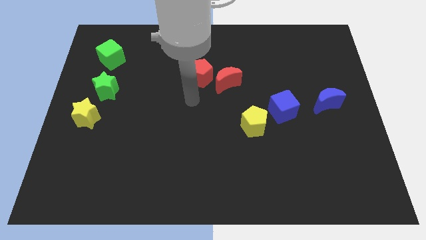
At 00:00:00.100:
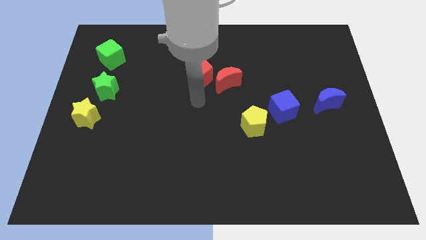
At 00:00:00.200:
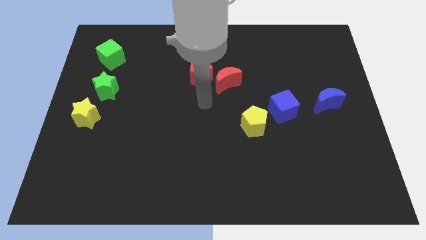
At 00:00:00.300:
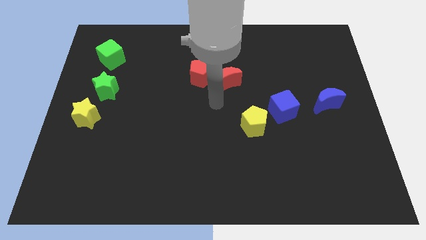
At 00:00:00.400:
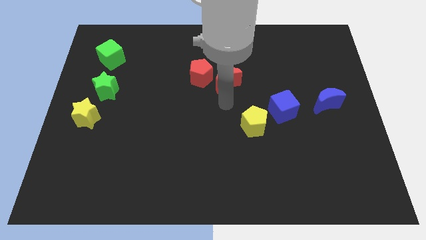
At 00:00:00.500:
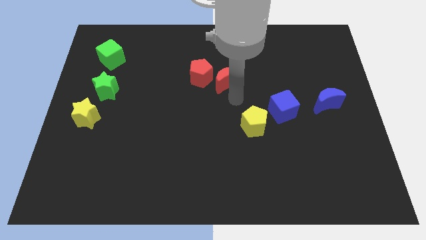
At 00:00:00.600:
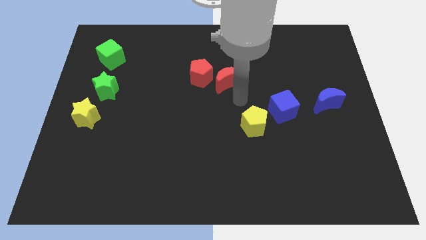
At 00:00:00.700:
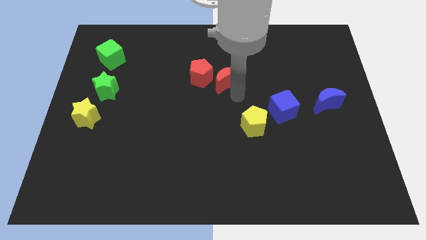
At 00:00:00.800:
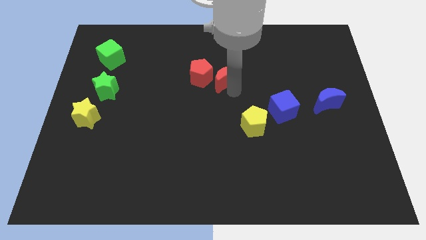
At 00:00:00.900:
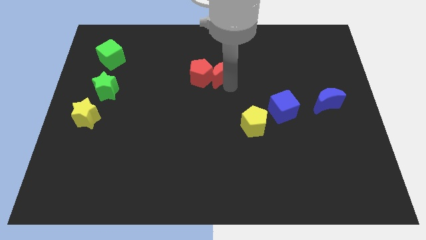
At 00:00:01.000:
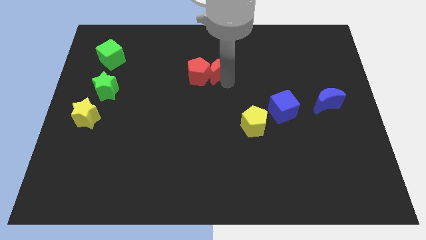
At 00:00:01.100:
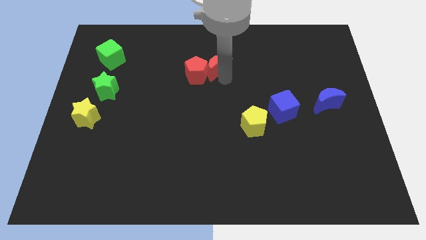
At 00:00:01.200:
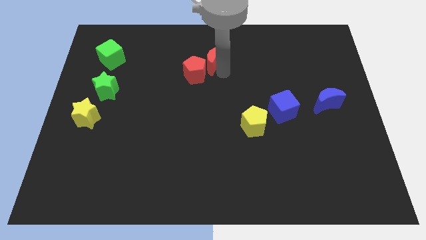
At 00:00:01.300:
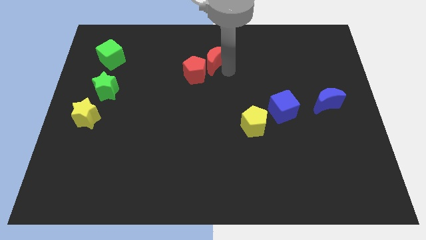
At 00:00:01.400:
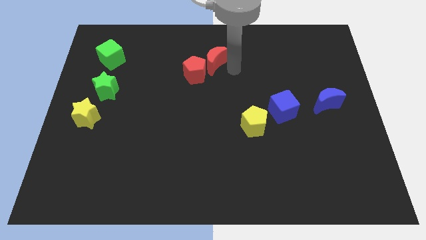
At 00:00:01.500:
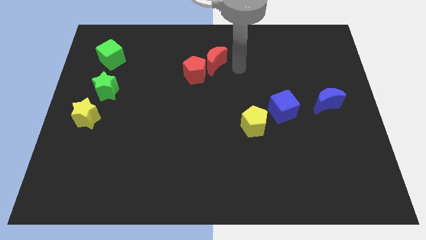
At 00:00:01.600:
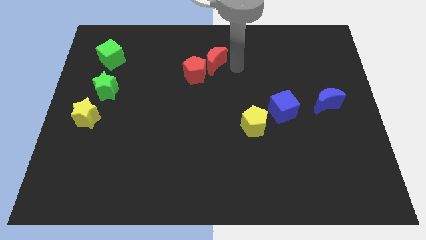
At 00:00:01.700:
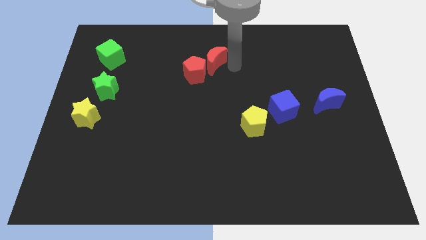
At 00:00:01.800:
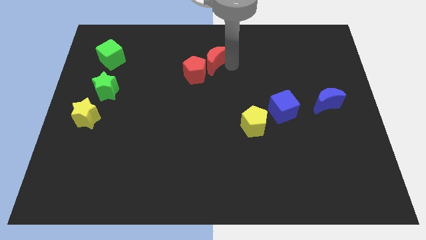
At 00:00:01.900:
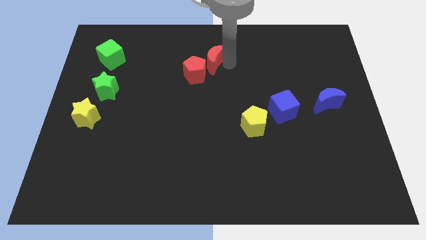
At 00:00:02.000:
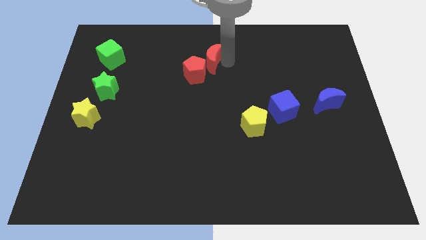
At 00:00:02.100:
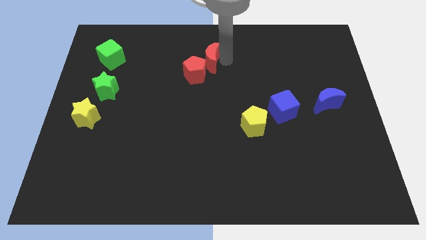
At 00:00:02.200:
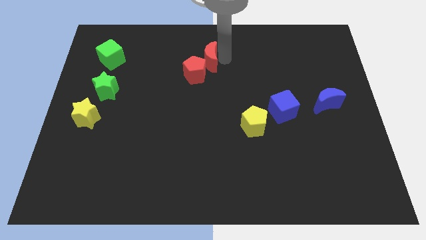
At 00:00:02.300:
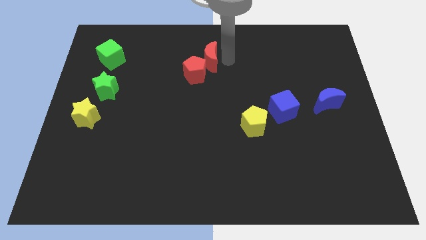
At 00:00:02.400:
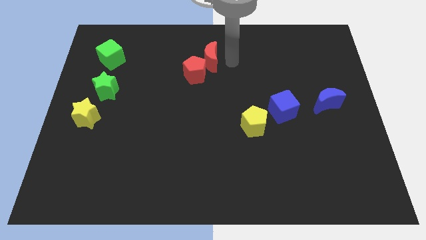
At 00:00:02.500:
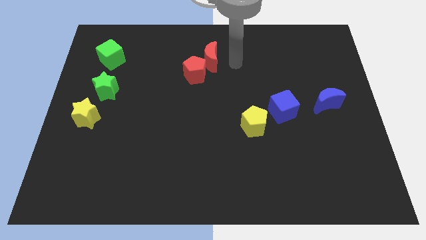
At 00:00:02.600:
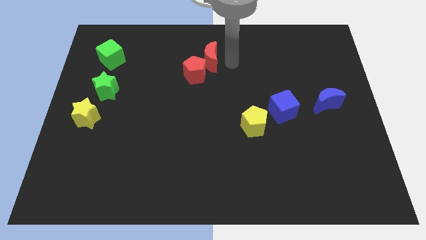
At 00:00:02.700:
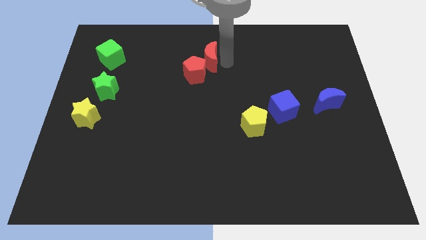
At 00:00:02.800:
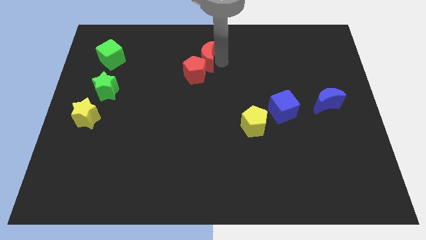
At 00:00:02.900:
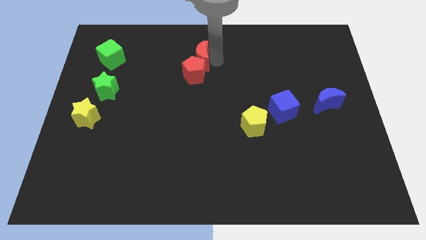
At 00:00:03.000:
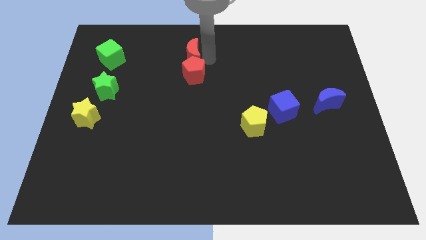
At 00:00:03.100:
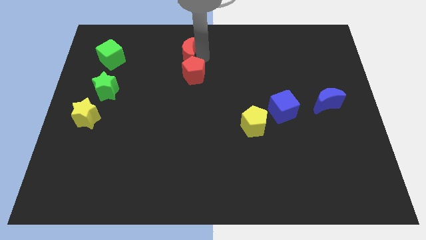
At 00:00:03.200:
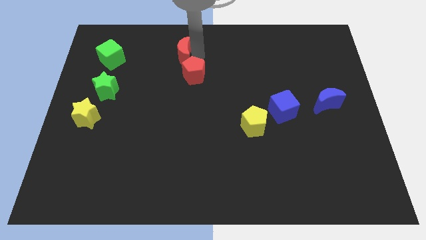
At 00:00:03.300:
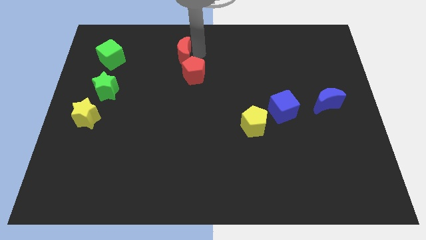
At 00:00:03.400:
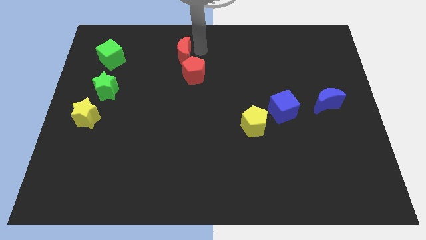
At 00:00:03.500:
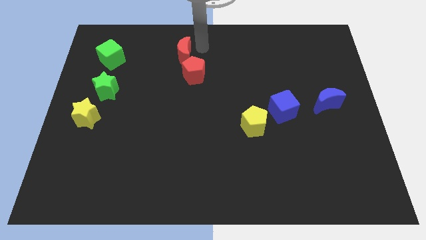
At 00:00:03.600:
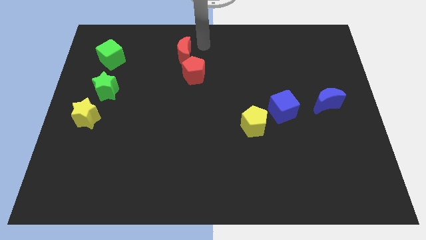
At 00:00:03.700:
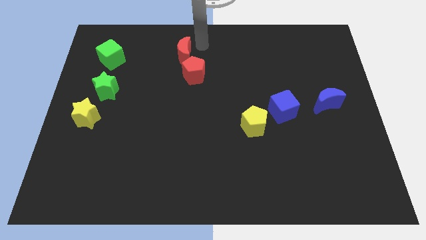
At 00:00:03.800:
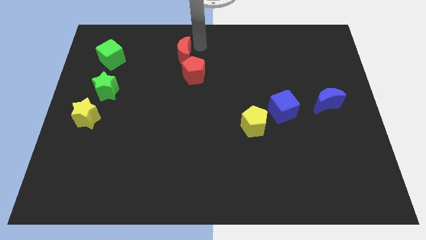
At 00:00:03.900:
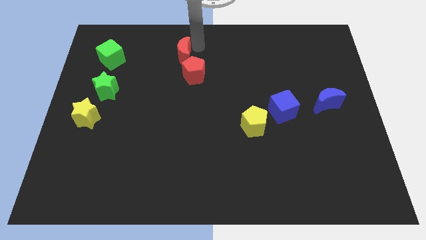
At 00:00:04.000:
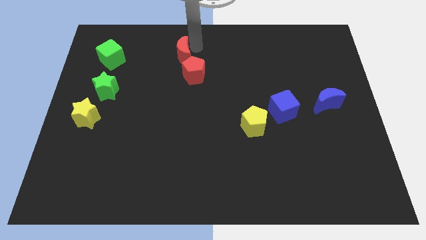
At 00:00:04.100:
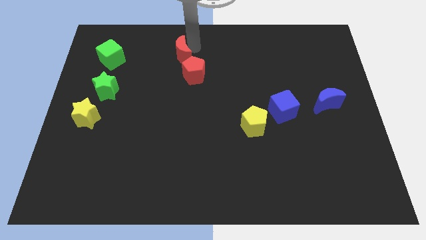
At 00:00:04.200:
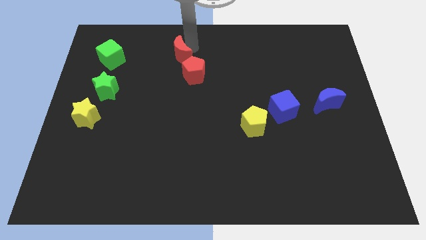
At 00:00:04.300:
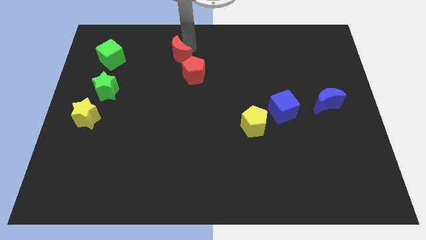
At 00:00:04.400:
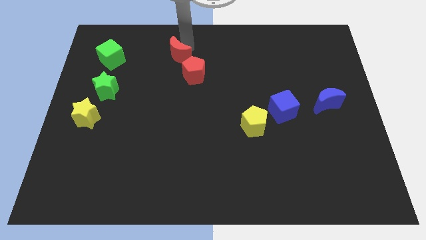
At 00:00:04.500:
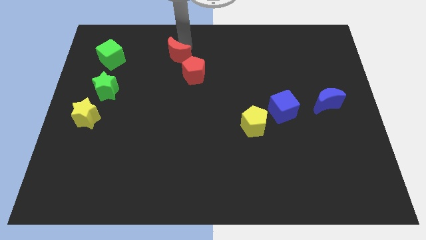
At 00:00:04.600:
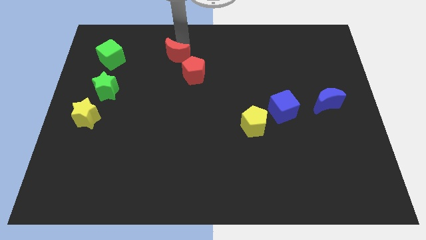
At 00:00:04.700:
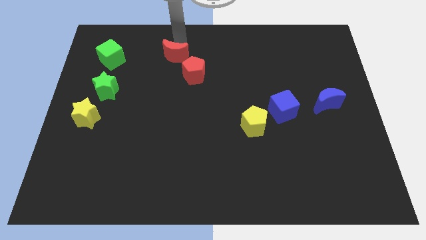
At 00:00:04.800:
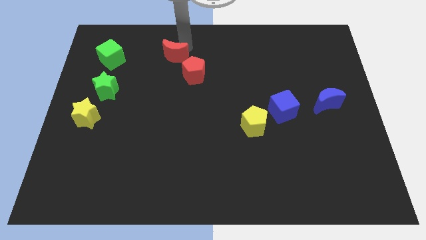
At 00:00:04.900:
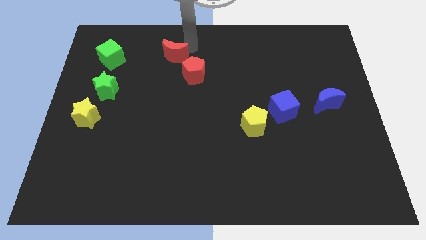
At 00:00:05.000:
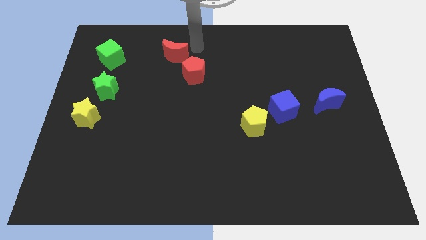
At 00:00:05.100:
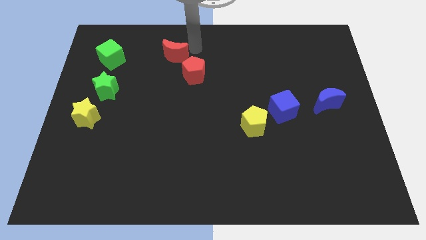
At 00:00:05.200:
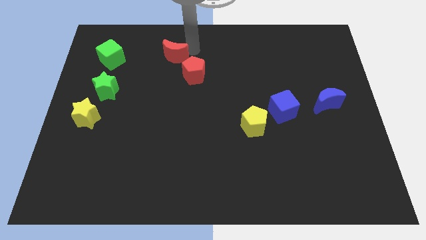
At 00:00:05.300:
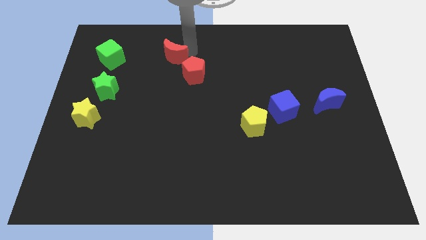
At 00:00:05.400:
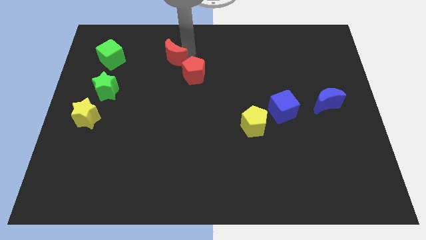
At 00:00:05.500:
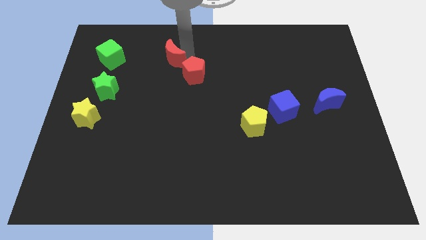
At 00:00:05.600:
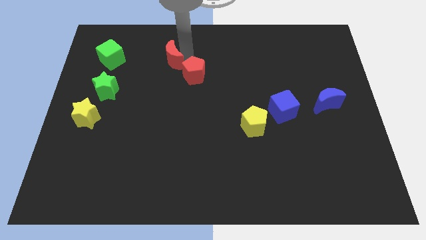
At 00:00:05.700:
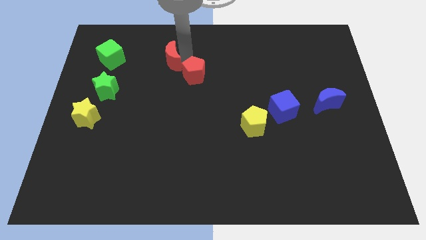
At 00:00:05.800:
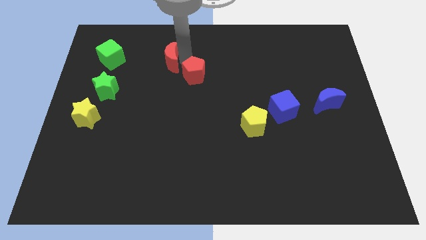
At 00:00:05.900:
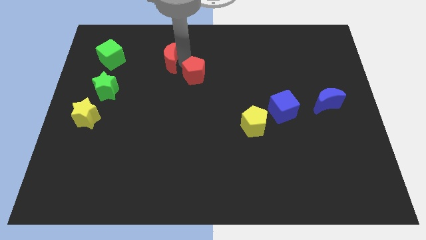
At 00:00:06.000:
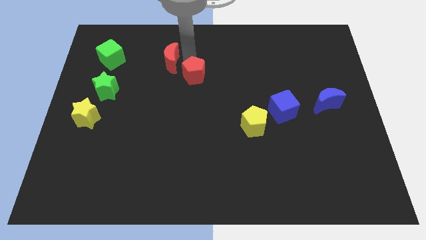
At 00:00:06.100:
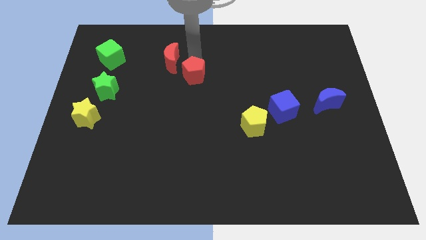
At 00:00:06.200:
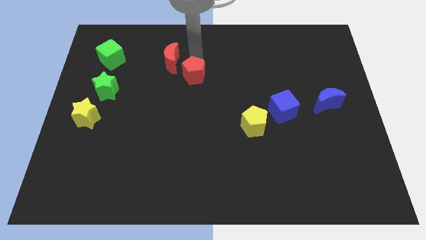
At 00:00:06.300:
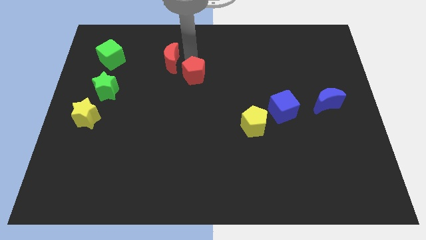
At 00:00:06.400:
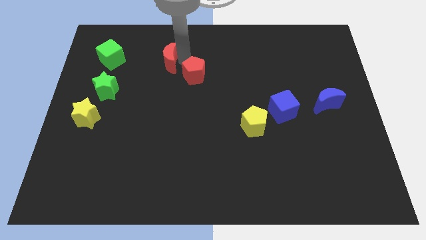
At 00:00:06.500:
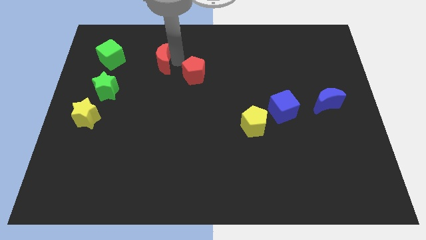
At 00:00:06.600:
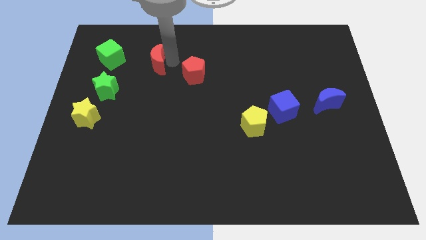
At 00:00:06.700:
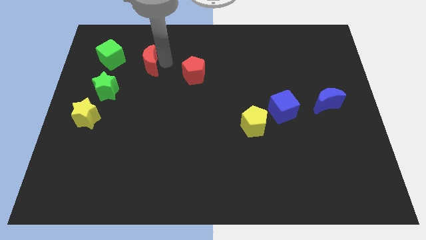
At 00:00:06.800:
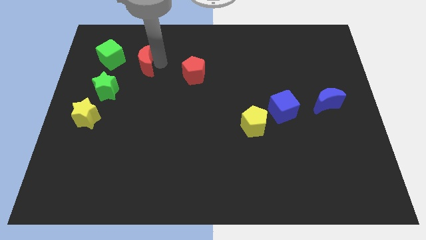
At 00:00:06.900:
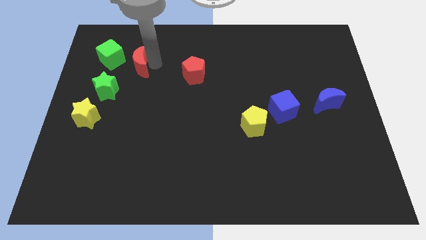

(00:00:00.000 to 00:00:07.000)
slide the red moon left

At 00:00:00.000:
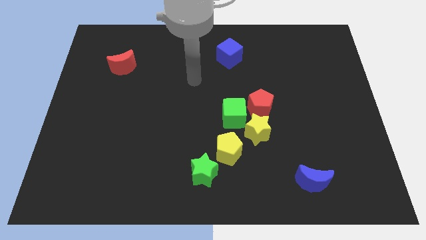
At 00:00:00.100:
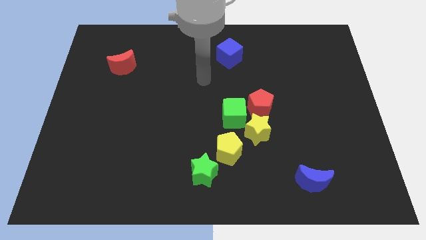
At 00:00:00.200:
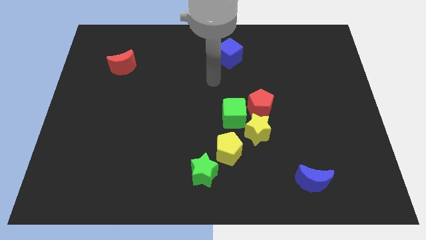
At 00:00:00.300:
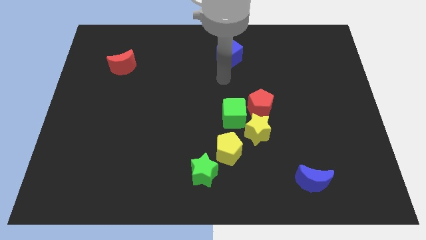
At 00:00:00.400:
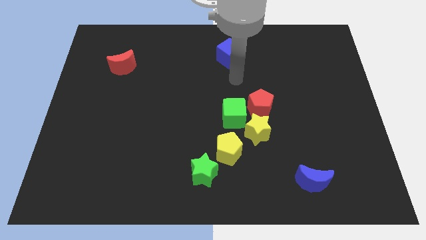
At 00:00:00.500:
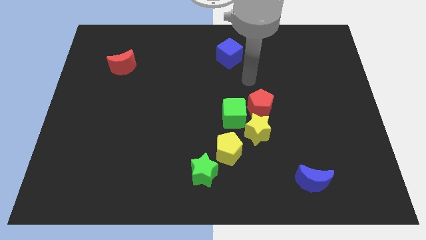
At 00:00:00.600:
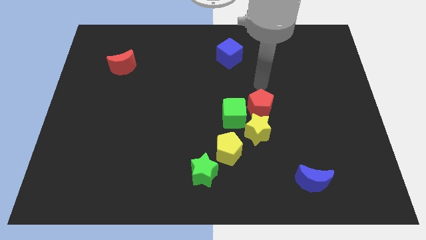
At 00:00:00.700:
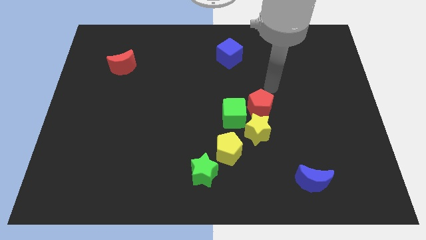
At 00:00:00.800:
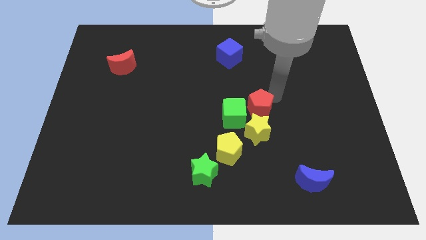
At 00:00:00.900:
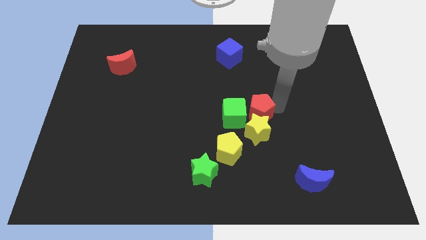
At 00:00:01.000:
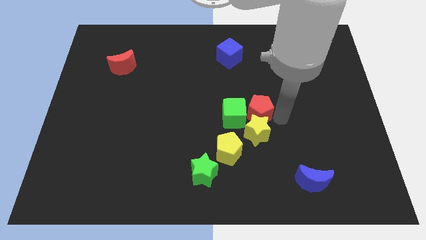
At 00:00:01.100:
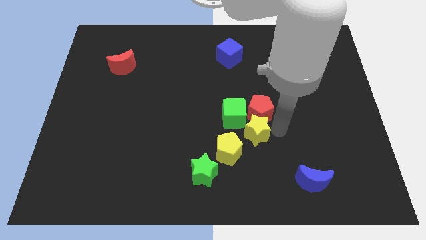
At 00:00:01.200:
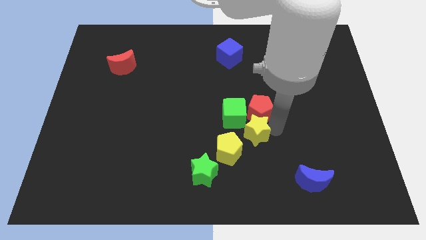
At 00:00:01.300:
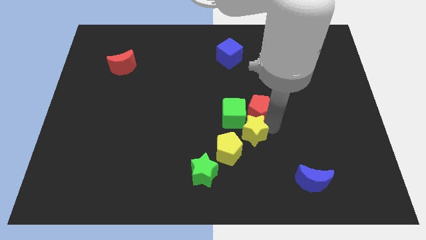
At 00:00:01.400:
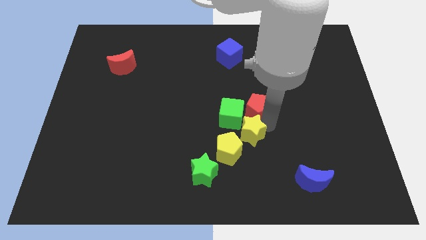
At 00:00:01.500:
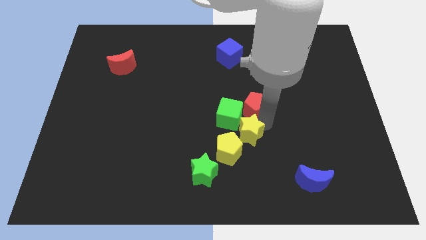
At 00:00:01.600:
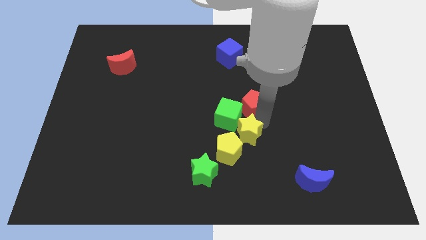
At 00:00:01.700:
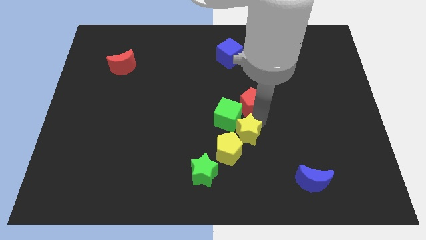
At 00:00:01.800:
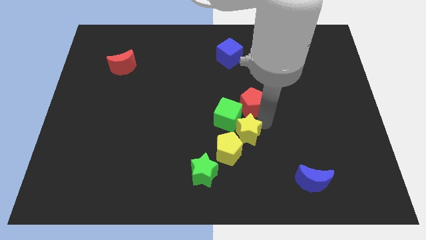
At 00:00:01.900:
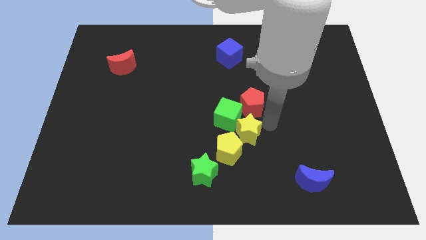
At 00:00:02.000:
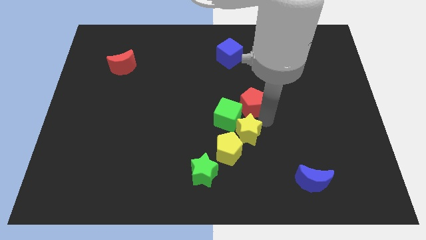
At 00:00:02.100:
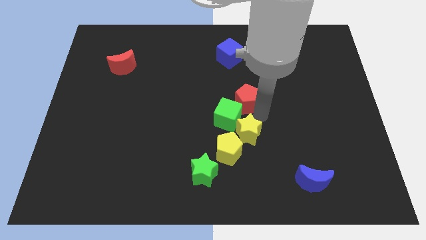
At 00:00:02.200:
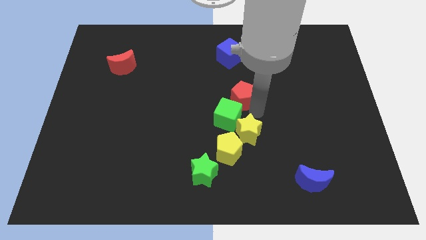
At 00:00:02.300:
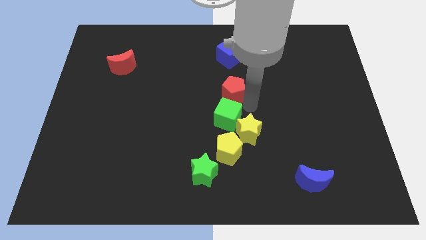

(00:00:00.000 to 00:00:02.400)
slightly push the red pentagon upwards and then to the left
